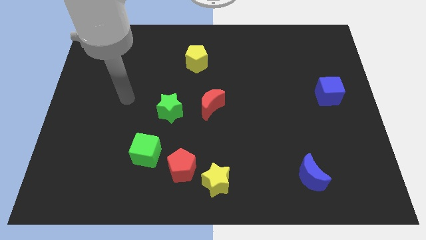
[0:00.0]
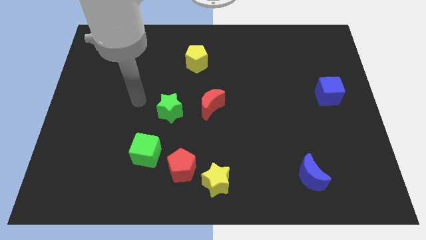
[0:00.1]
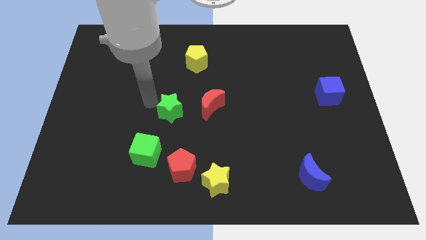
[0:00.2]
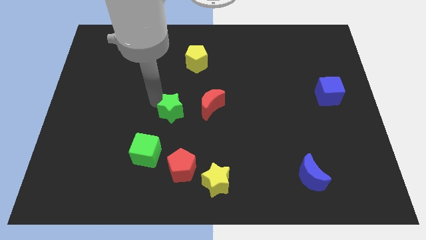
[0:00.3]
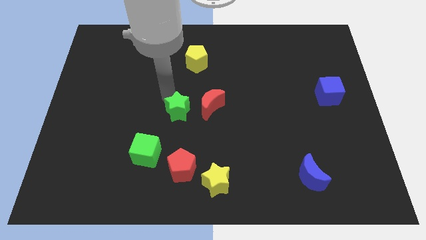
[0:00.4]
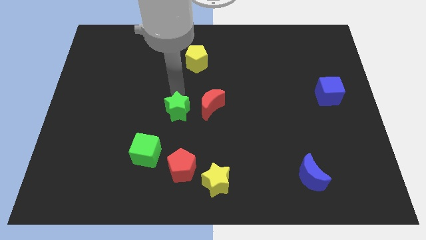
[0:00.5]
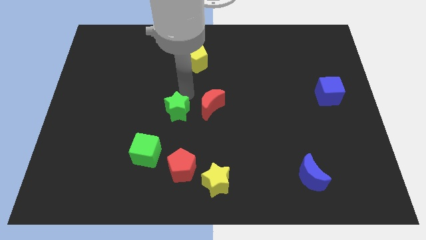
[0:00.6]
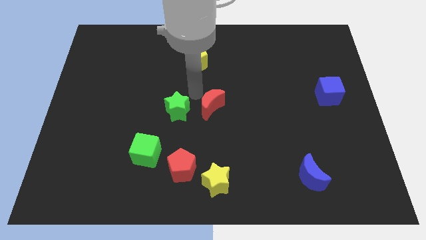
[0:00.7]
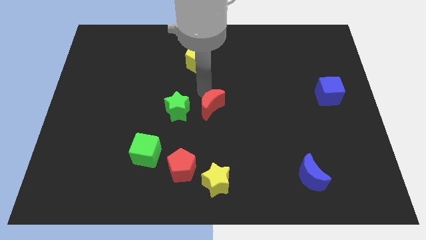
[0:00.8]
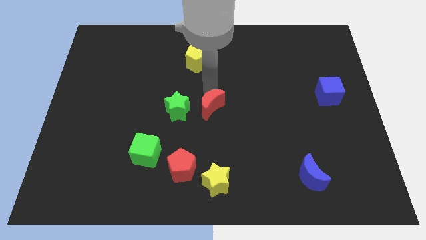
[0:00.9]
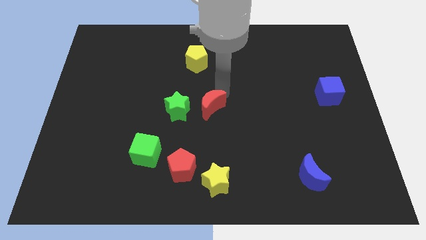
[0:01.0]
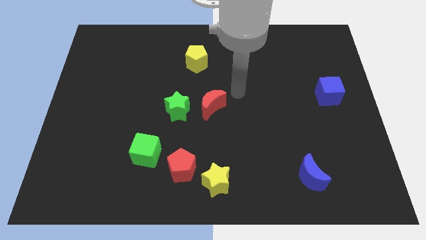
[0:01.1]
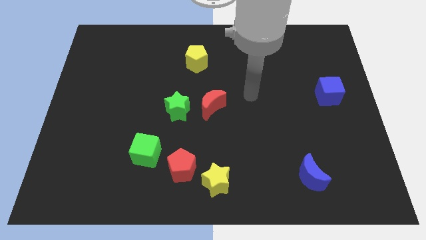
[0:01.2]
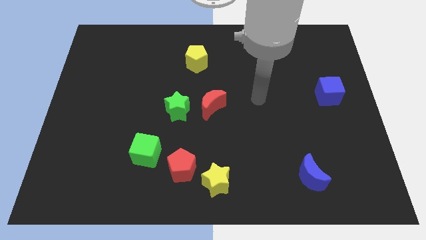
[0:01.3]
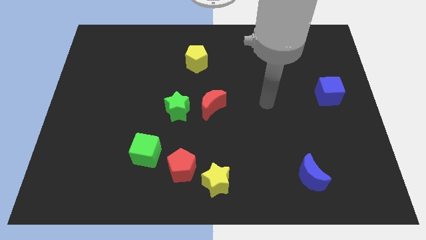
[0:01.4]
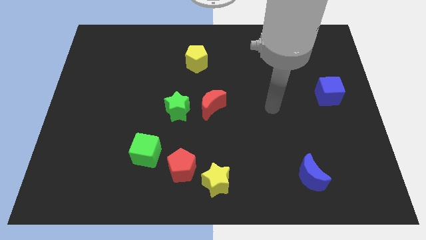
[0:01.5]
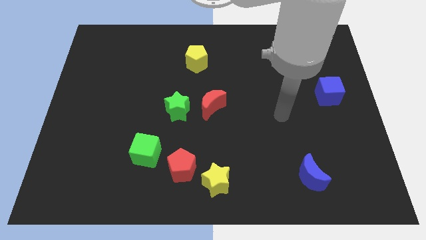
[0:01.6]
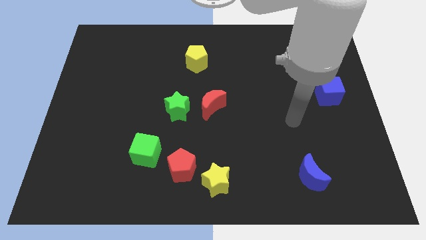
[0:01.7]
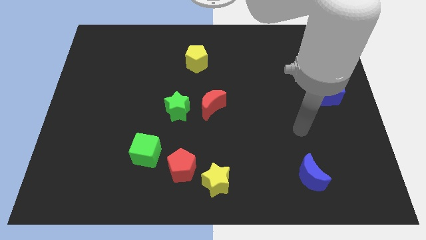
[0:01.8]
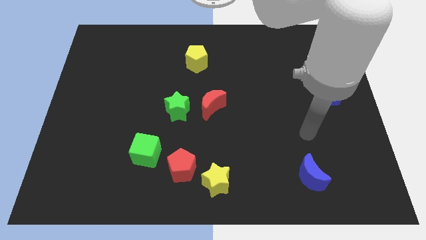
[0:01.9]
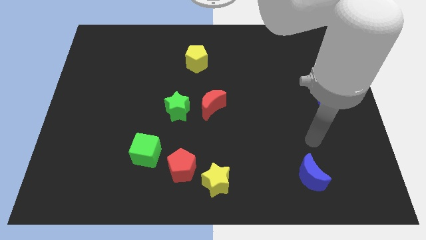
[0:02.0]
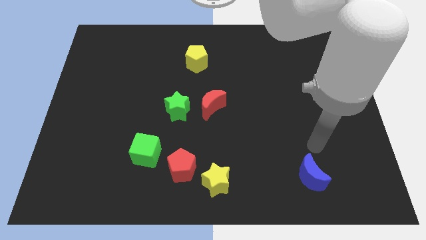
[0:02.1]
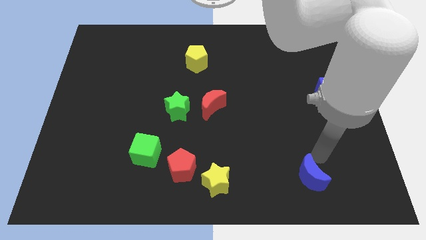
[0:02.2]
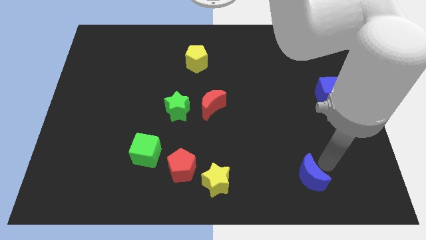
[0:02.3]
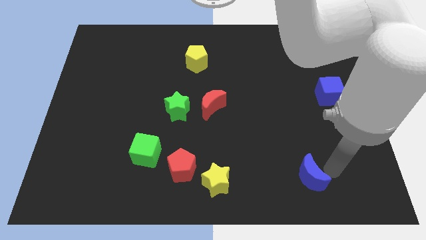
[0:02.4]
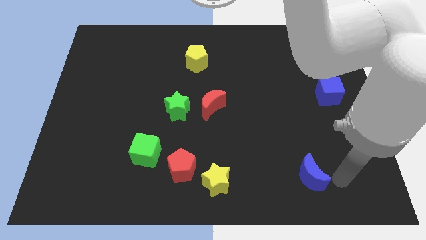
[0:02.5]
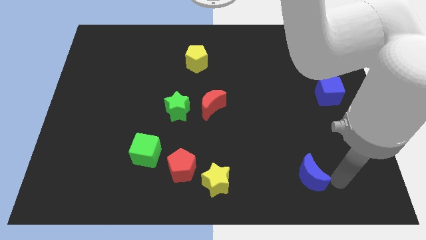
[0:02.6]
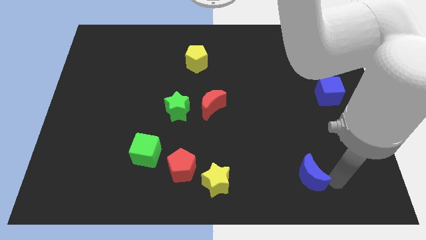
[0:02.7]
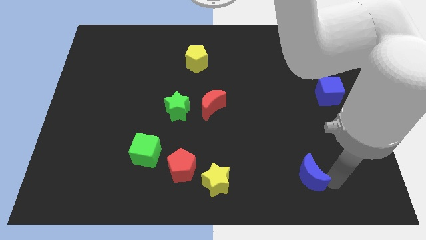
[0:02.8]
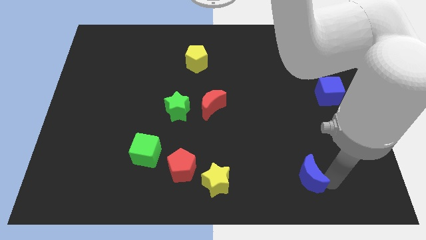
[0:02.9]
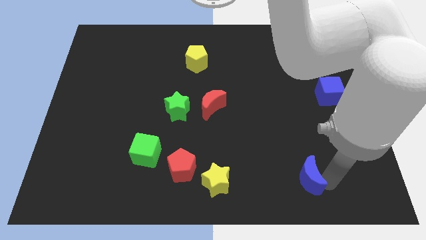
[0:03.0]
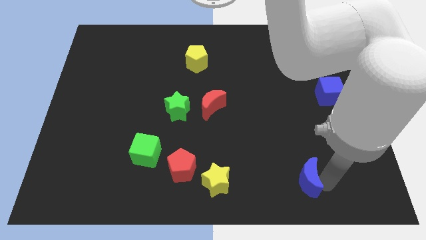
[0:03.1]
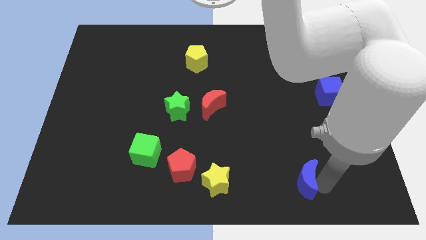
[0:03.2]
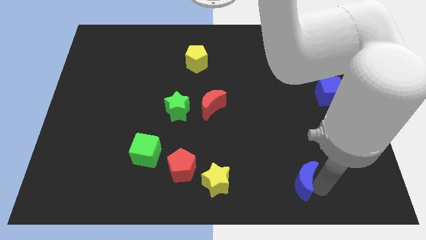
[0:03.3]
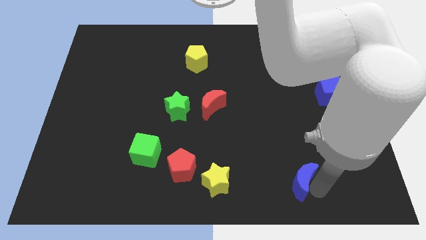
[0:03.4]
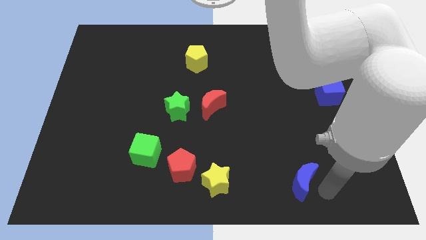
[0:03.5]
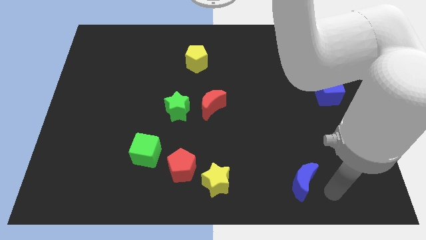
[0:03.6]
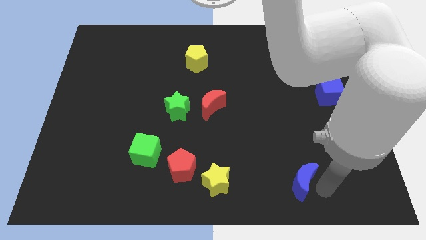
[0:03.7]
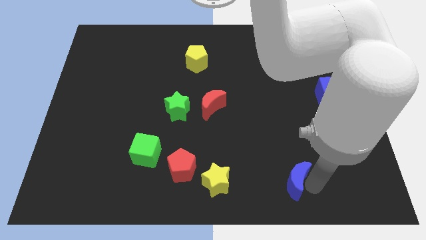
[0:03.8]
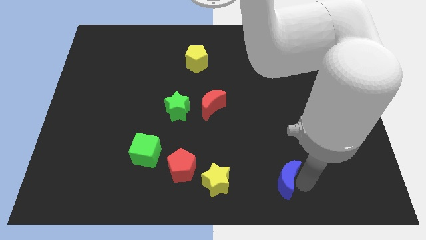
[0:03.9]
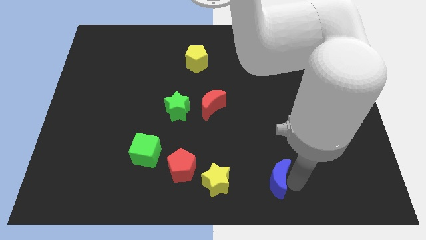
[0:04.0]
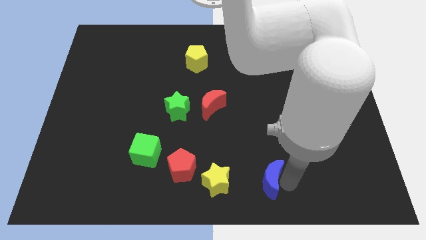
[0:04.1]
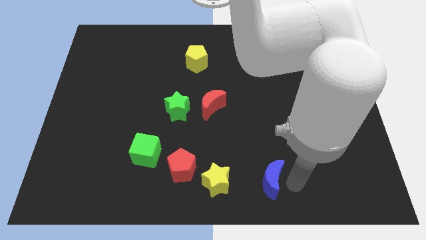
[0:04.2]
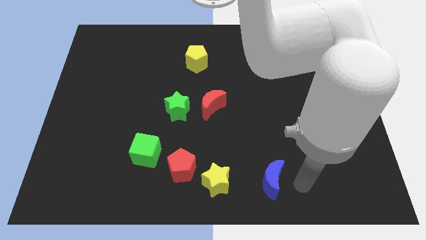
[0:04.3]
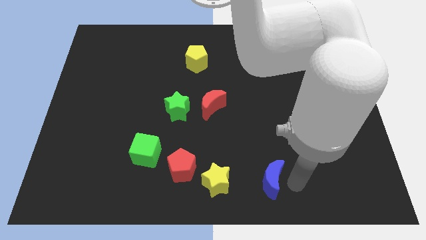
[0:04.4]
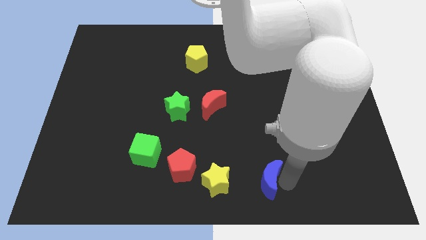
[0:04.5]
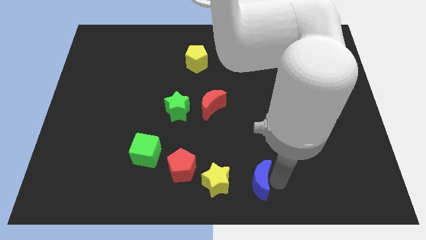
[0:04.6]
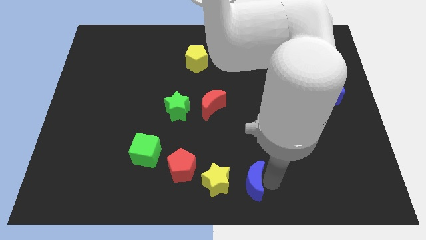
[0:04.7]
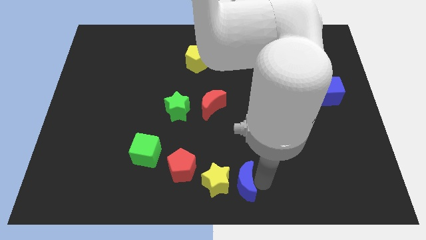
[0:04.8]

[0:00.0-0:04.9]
push the blue moon next to the yellow star

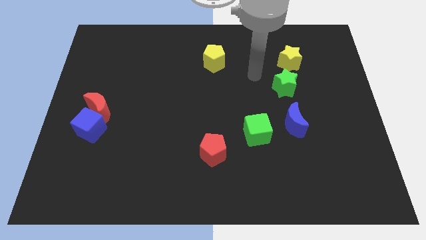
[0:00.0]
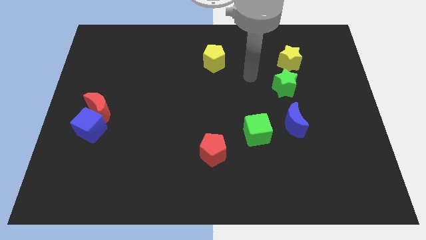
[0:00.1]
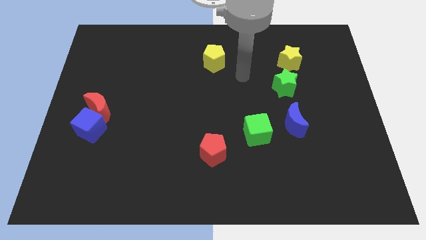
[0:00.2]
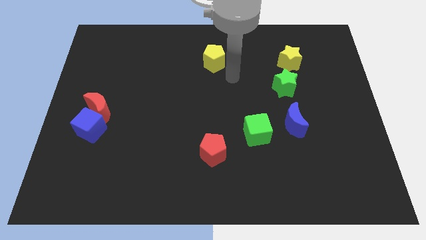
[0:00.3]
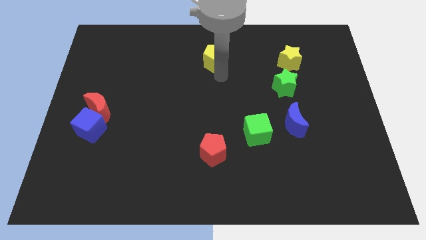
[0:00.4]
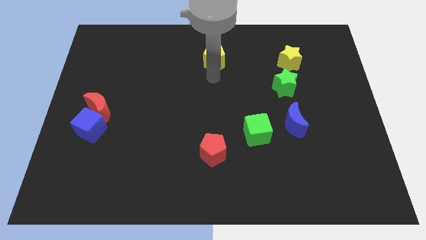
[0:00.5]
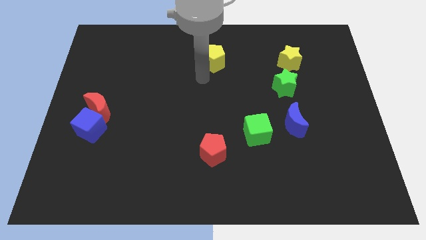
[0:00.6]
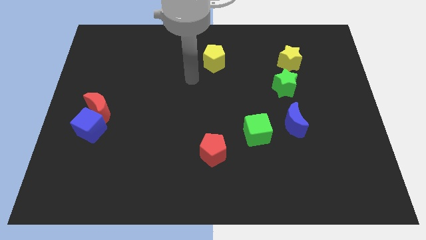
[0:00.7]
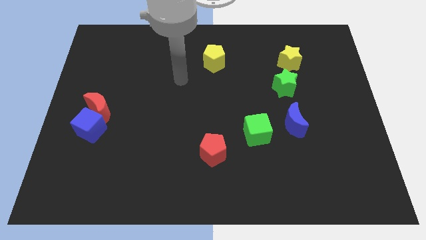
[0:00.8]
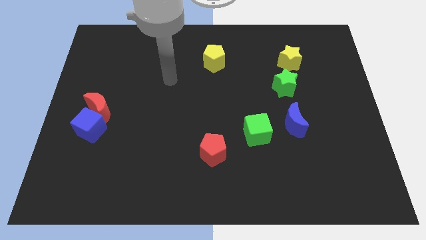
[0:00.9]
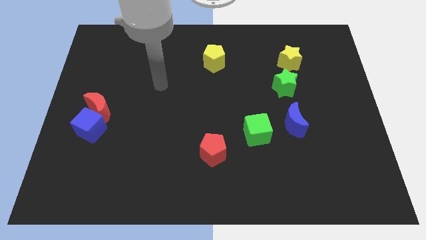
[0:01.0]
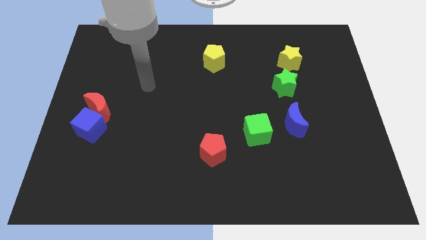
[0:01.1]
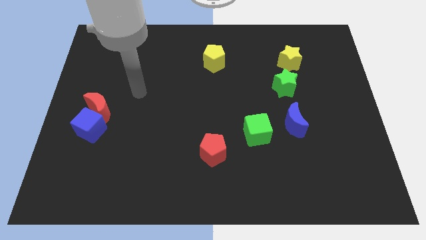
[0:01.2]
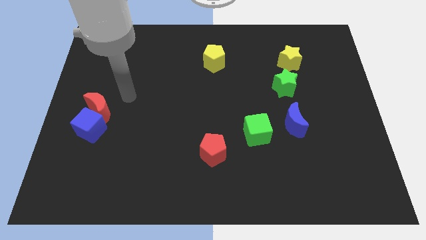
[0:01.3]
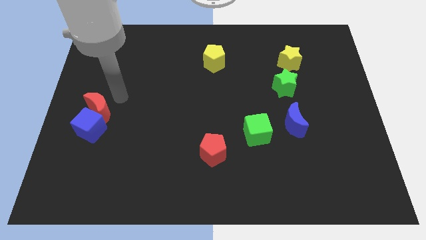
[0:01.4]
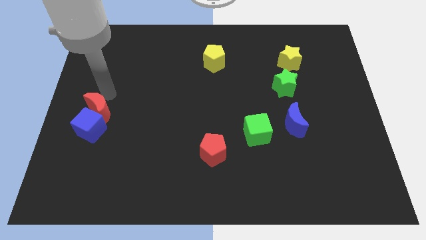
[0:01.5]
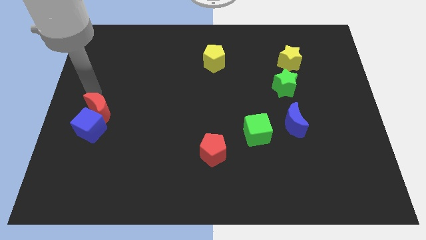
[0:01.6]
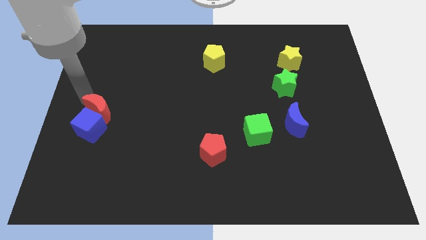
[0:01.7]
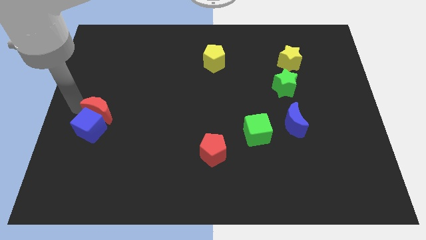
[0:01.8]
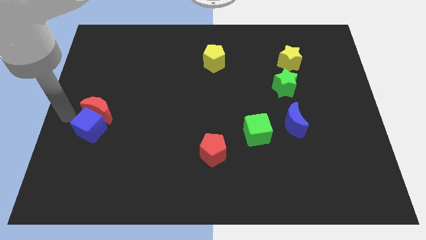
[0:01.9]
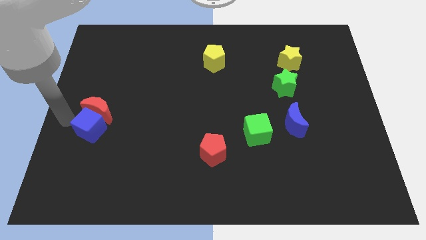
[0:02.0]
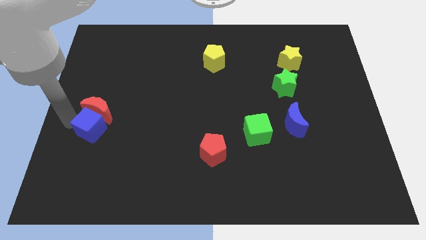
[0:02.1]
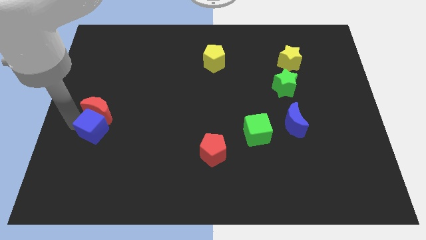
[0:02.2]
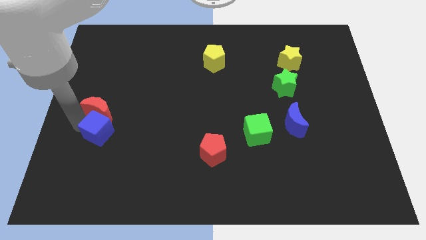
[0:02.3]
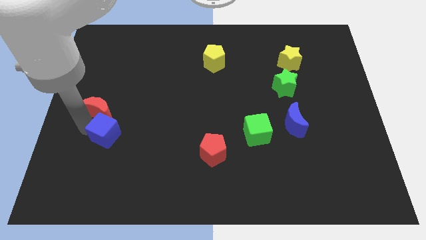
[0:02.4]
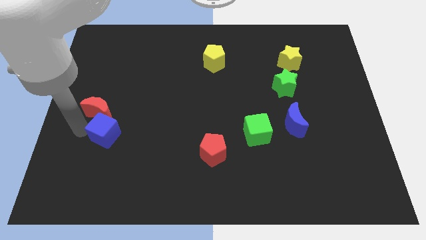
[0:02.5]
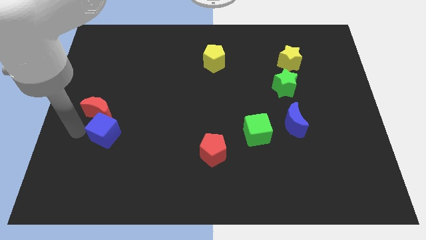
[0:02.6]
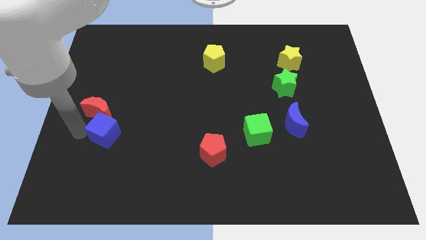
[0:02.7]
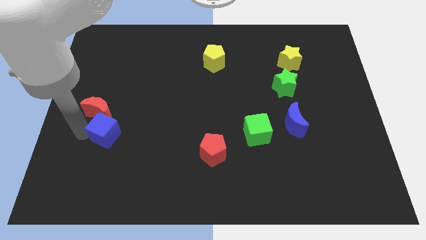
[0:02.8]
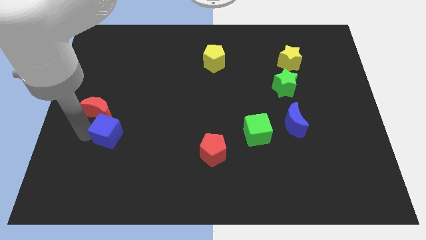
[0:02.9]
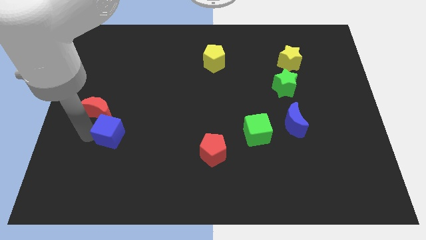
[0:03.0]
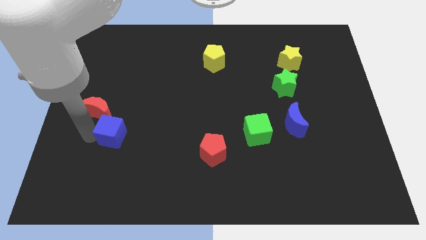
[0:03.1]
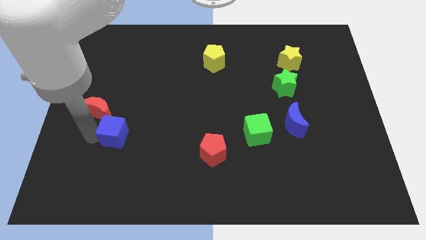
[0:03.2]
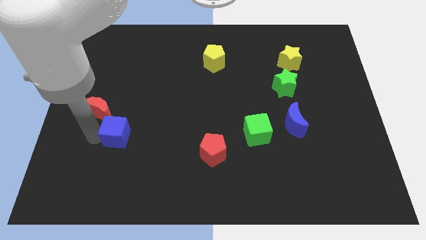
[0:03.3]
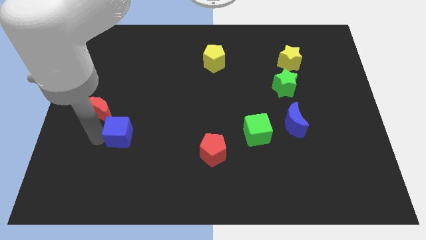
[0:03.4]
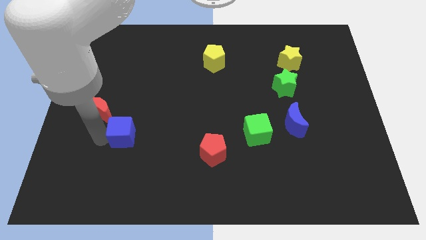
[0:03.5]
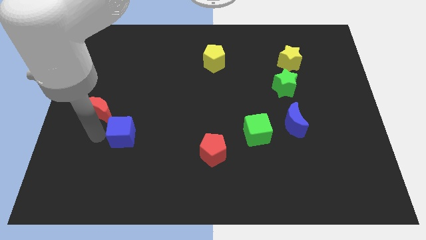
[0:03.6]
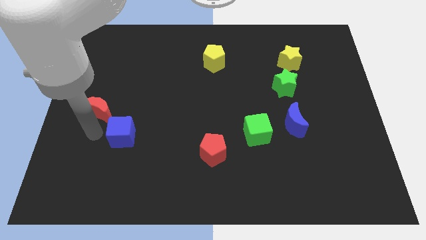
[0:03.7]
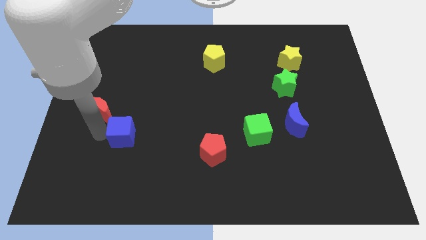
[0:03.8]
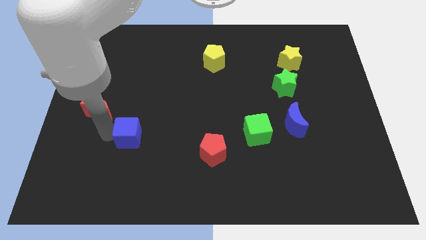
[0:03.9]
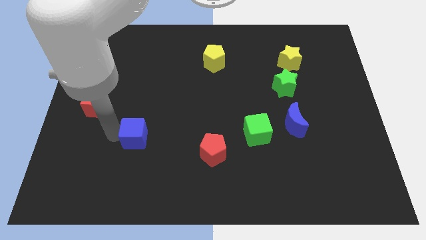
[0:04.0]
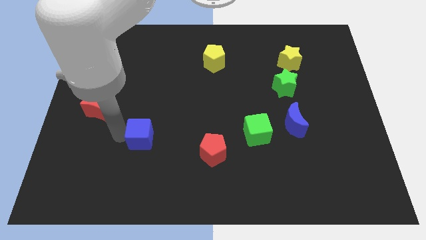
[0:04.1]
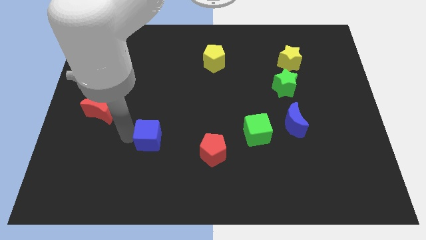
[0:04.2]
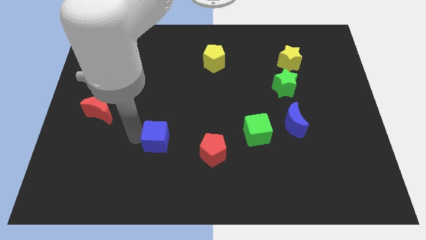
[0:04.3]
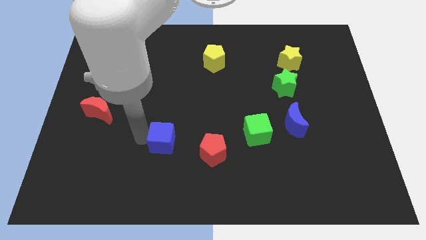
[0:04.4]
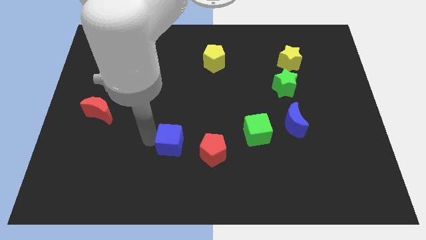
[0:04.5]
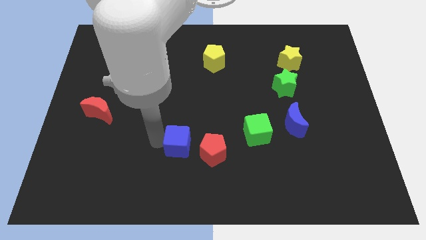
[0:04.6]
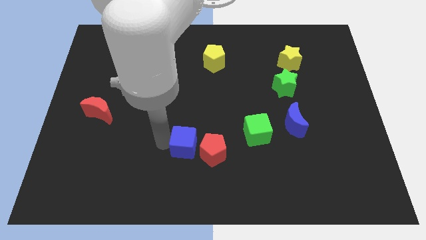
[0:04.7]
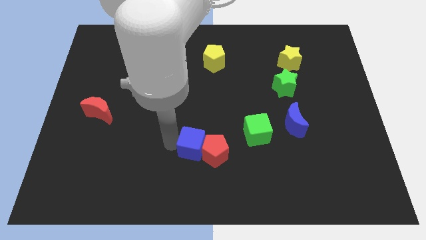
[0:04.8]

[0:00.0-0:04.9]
put the blue cube towards the red pentagon
